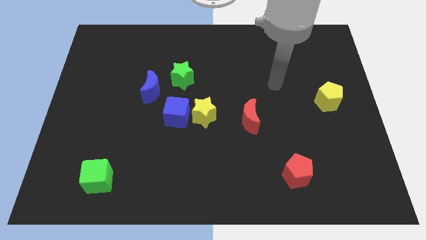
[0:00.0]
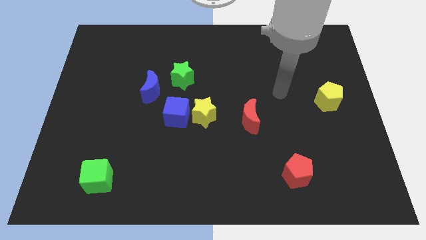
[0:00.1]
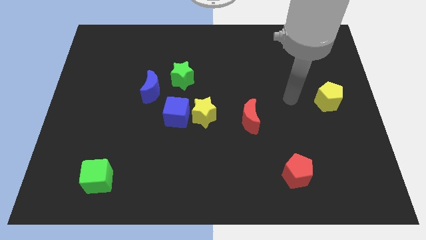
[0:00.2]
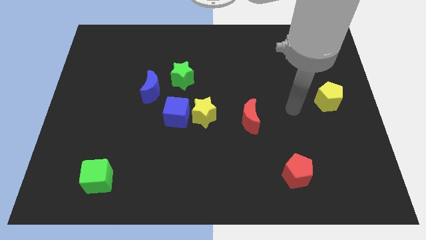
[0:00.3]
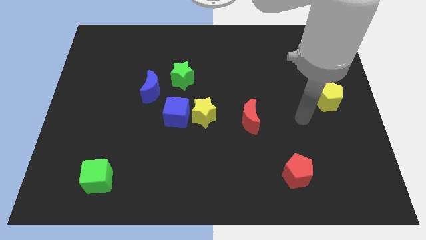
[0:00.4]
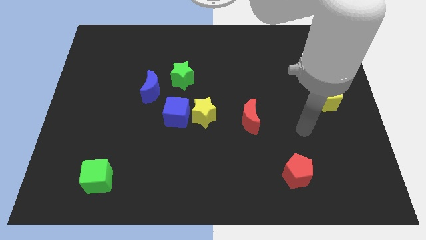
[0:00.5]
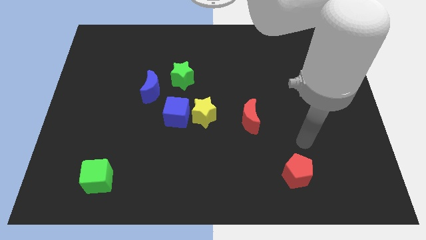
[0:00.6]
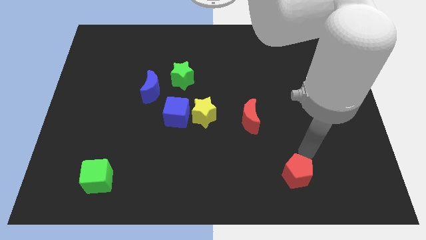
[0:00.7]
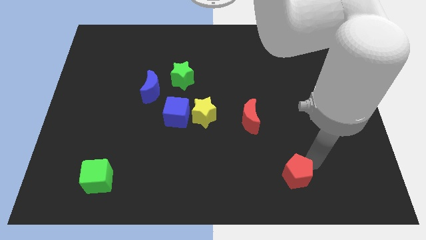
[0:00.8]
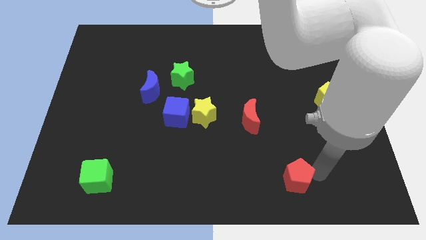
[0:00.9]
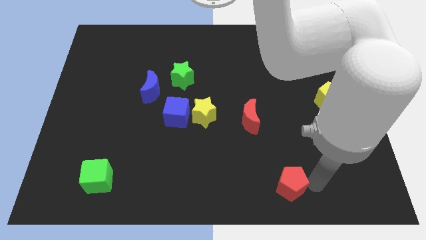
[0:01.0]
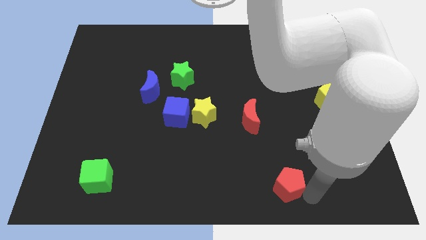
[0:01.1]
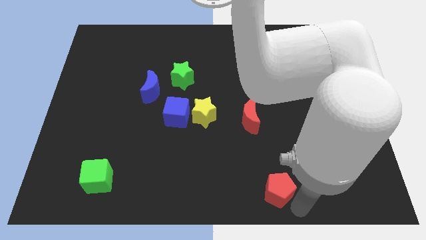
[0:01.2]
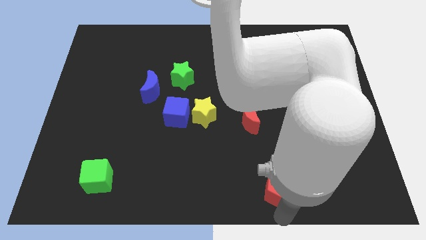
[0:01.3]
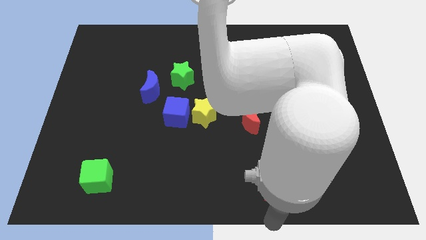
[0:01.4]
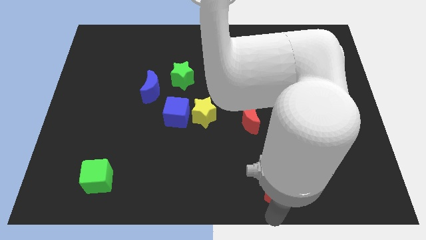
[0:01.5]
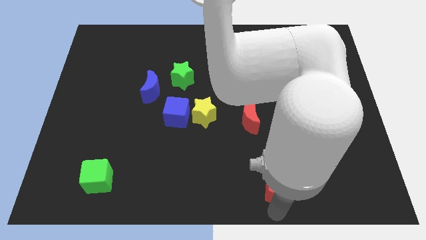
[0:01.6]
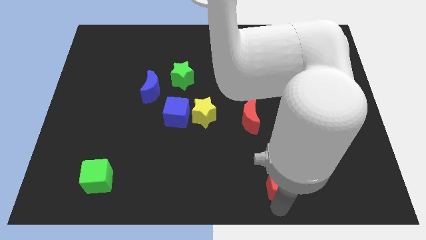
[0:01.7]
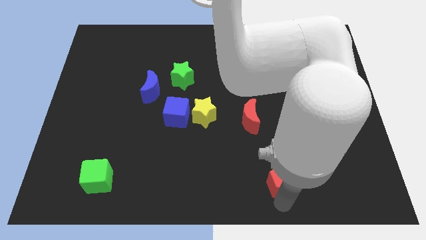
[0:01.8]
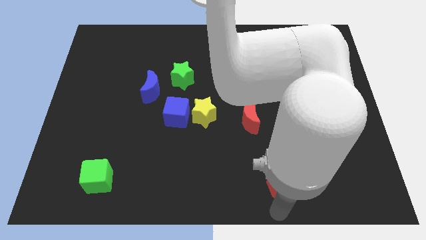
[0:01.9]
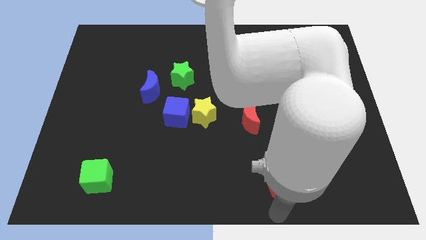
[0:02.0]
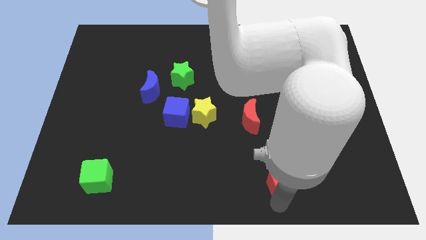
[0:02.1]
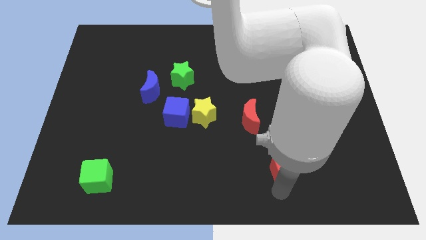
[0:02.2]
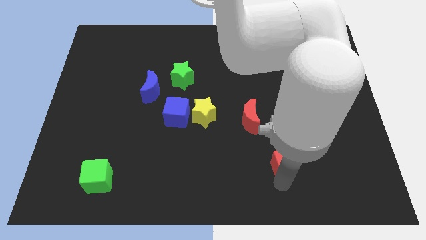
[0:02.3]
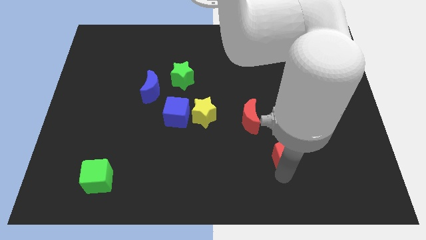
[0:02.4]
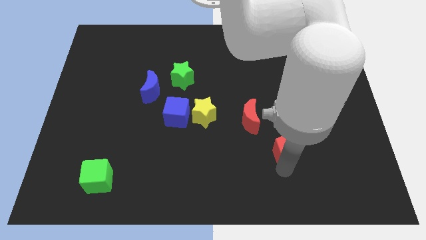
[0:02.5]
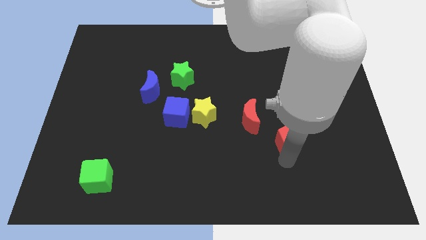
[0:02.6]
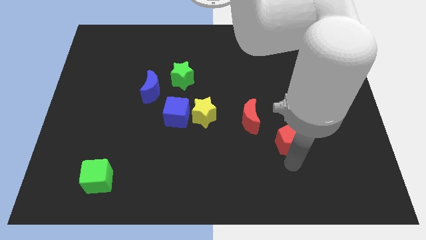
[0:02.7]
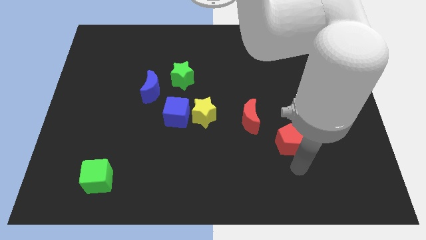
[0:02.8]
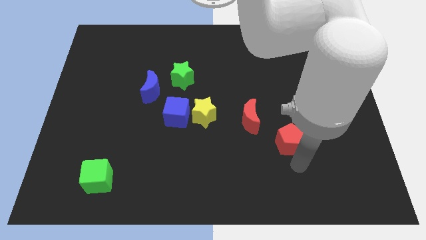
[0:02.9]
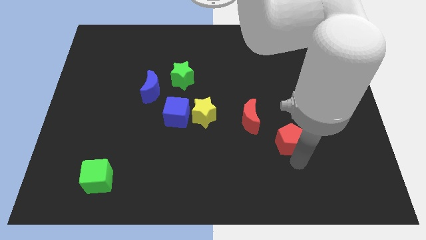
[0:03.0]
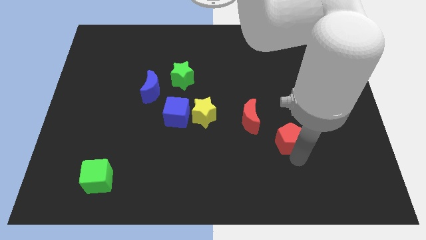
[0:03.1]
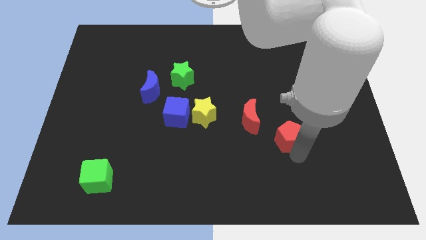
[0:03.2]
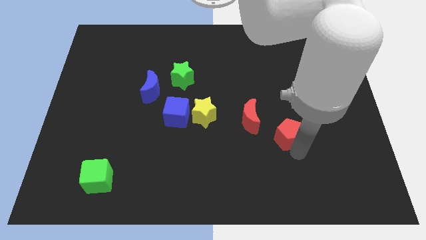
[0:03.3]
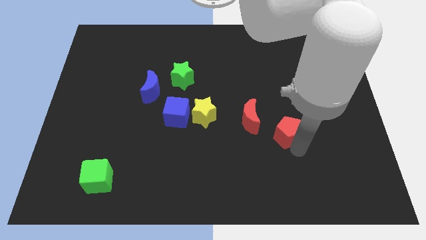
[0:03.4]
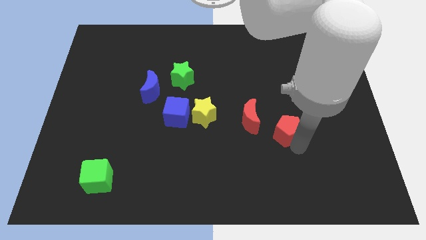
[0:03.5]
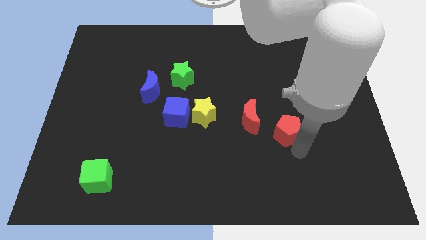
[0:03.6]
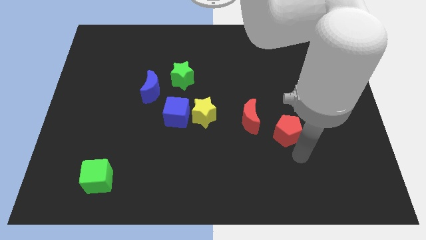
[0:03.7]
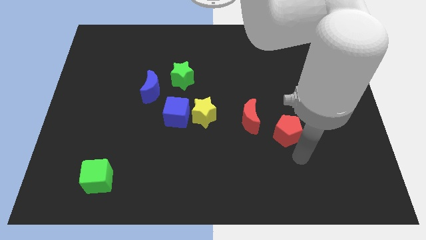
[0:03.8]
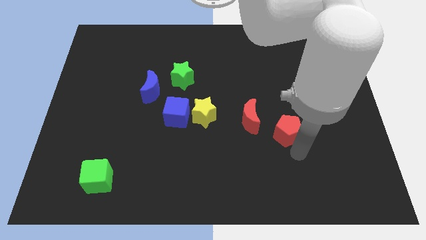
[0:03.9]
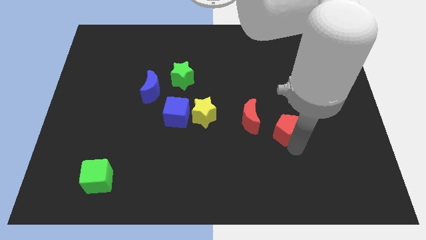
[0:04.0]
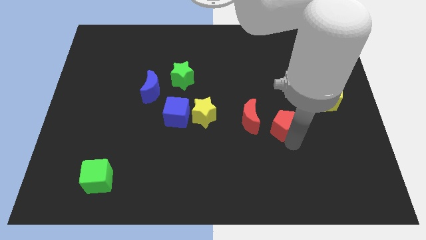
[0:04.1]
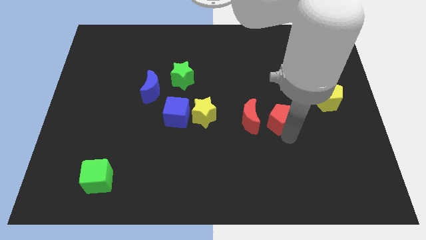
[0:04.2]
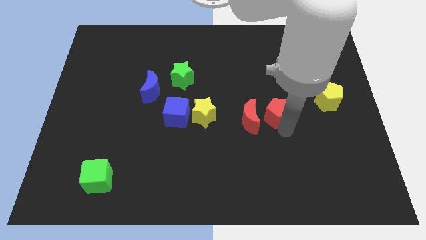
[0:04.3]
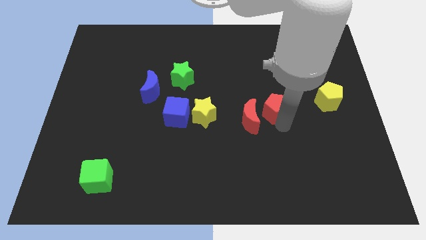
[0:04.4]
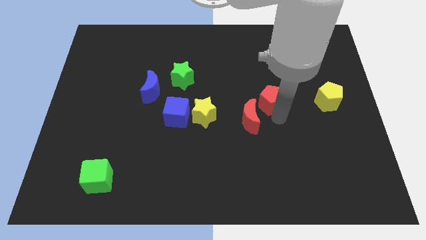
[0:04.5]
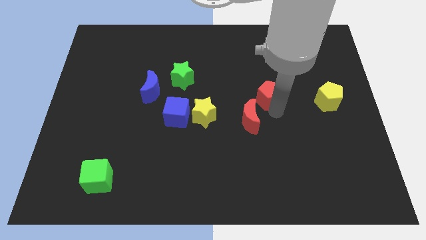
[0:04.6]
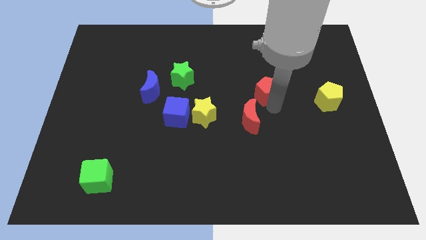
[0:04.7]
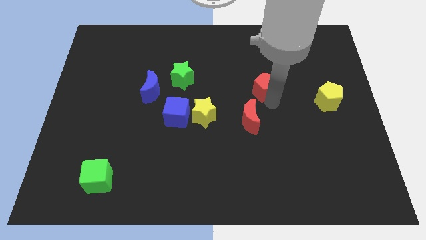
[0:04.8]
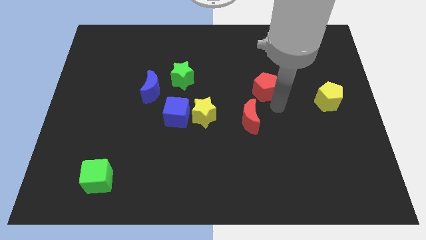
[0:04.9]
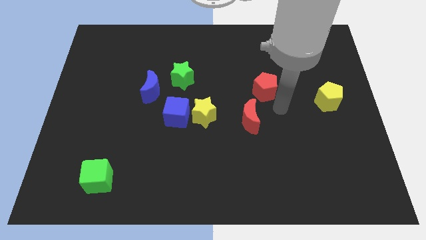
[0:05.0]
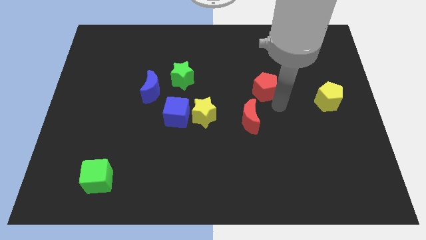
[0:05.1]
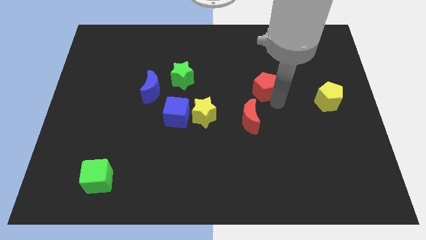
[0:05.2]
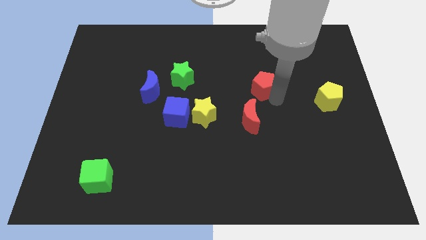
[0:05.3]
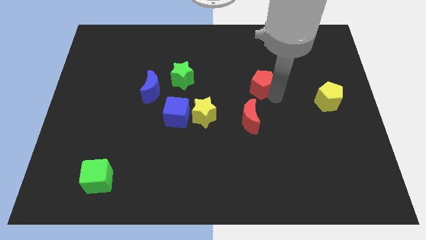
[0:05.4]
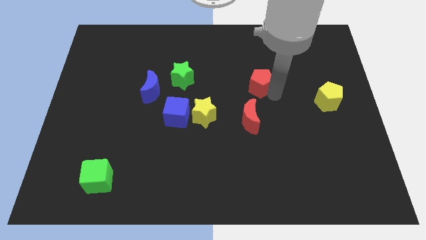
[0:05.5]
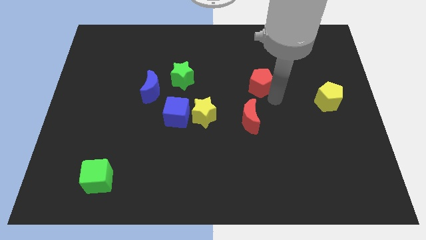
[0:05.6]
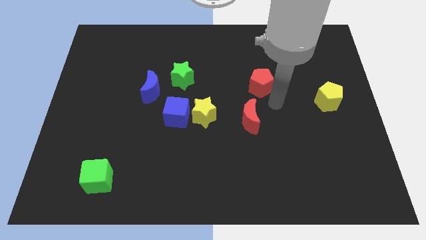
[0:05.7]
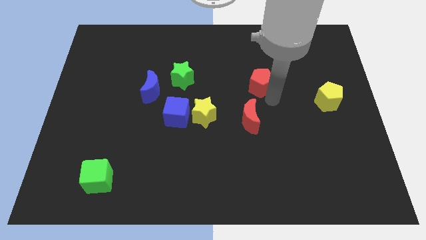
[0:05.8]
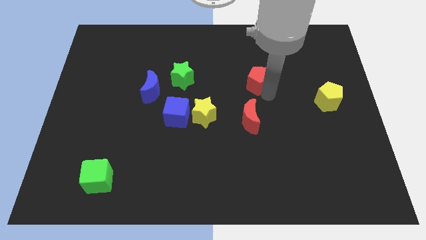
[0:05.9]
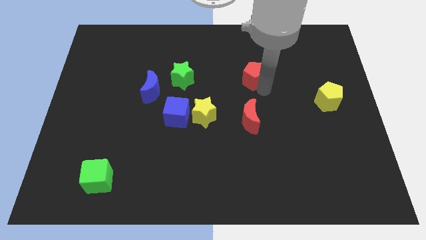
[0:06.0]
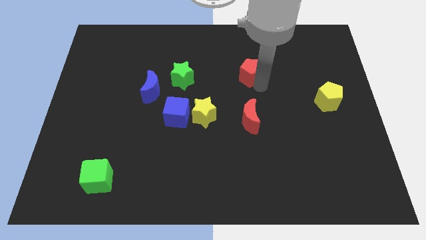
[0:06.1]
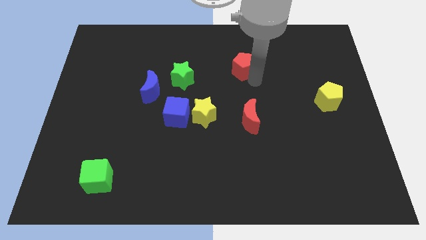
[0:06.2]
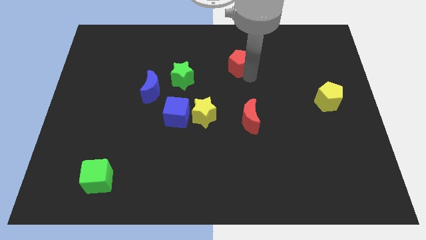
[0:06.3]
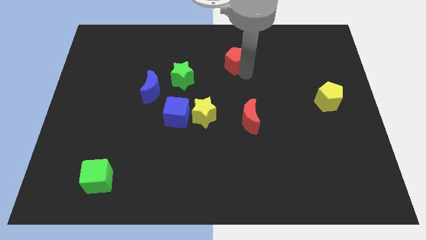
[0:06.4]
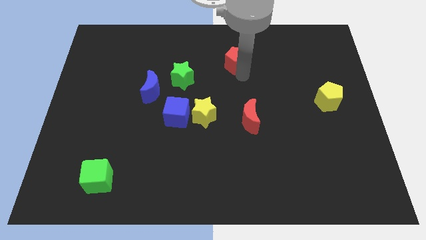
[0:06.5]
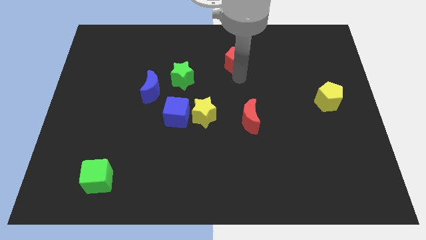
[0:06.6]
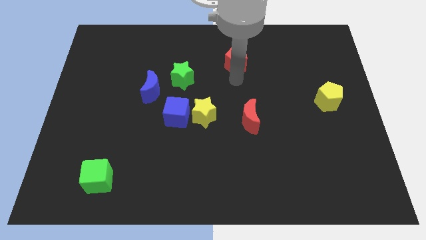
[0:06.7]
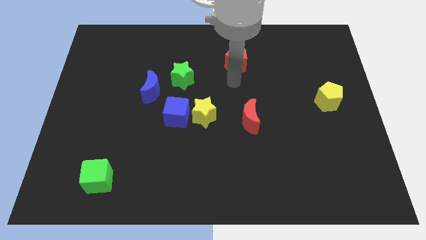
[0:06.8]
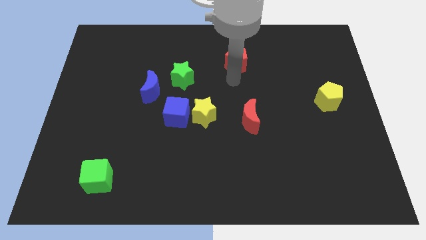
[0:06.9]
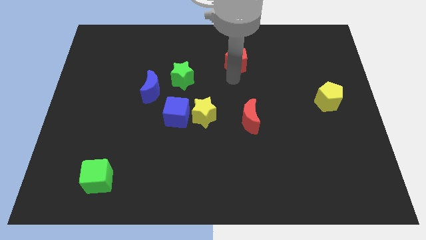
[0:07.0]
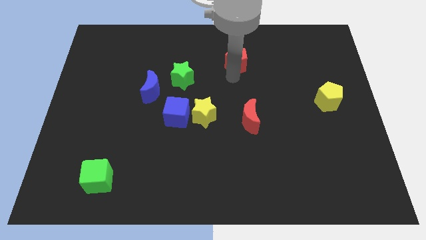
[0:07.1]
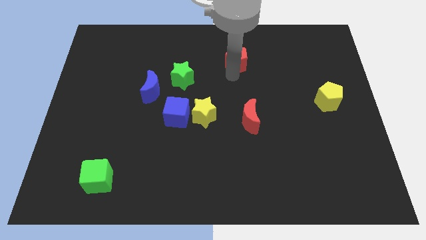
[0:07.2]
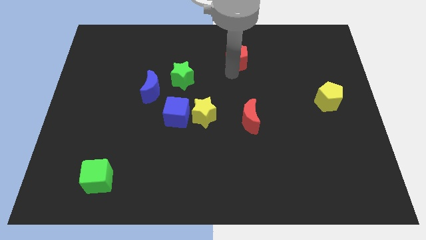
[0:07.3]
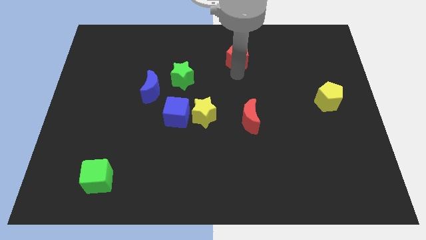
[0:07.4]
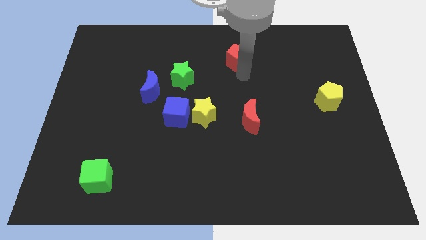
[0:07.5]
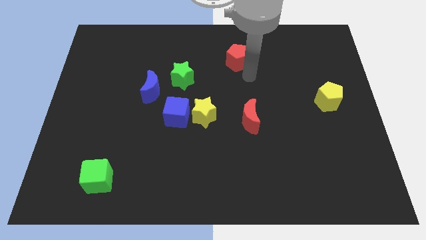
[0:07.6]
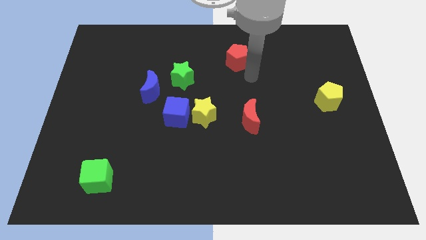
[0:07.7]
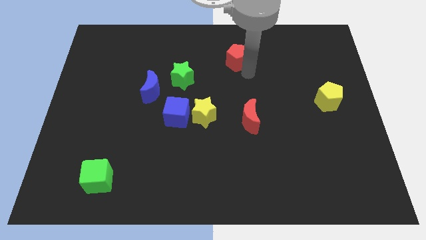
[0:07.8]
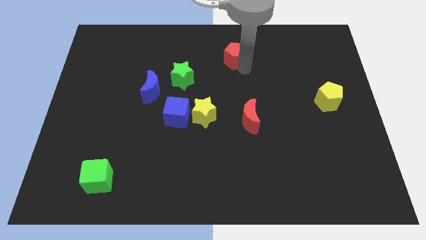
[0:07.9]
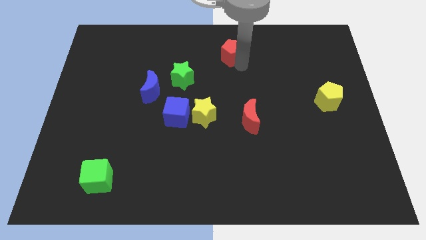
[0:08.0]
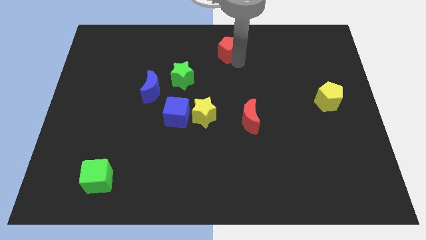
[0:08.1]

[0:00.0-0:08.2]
move the red pentagon to the towards your base
